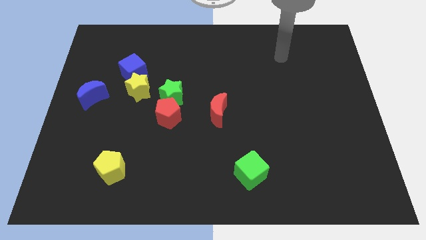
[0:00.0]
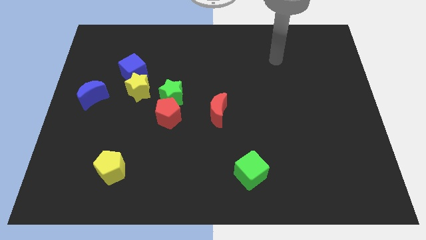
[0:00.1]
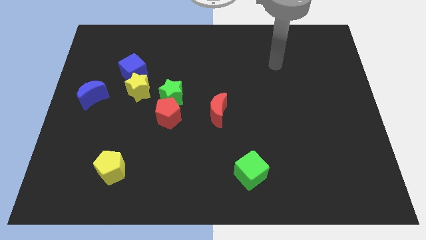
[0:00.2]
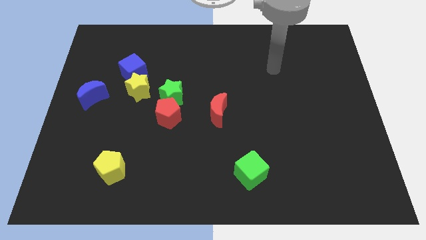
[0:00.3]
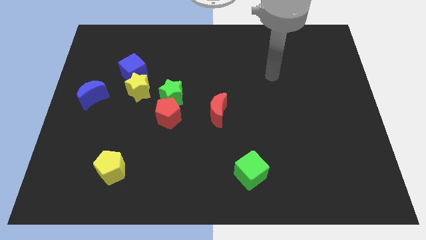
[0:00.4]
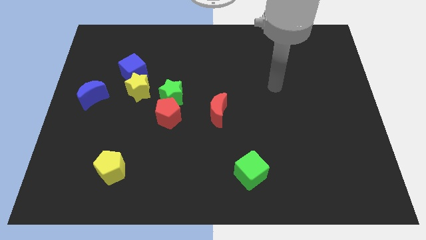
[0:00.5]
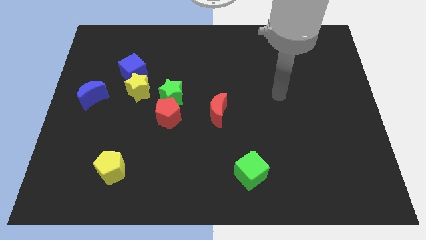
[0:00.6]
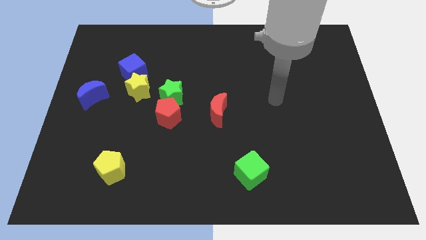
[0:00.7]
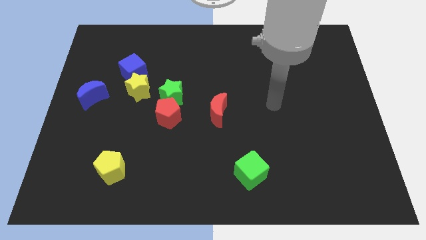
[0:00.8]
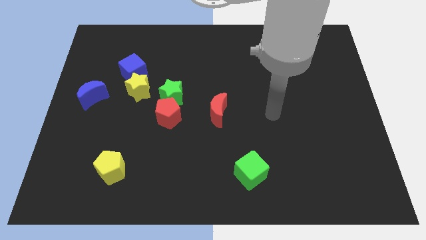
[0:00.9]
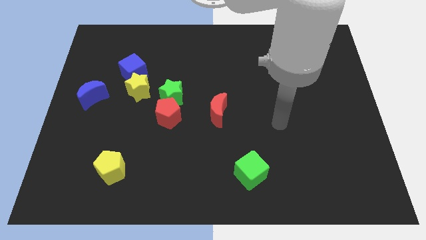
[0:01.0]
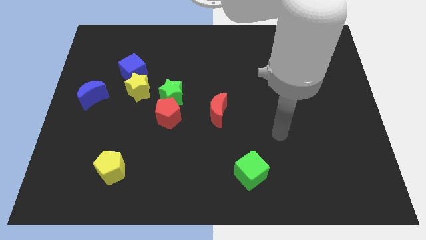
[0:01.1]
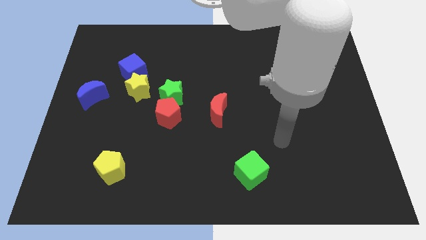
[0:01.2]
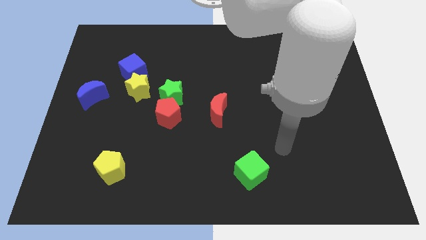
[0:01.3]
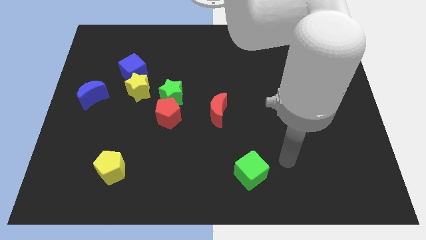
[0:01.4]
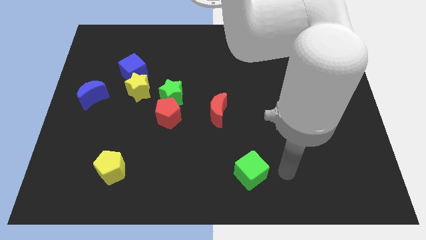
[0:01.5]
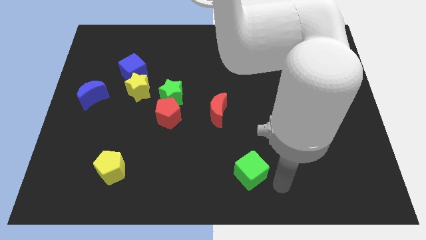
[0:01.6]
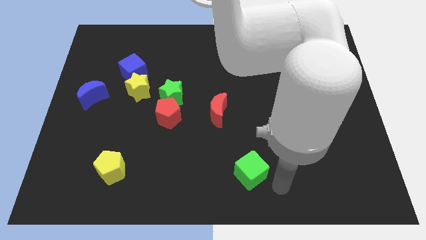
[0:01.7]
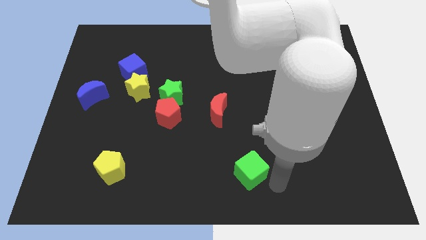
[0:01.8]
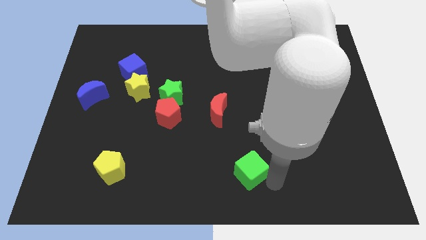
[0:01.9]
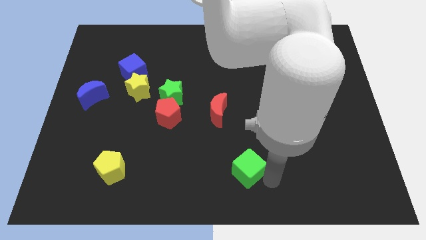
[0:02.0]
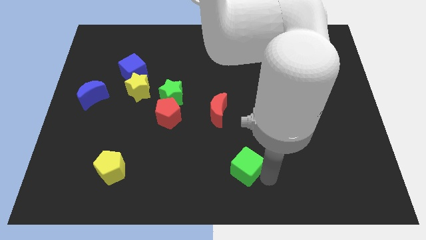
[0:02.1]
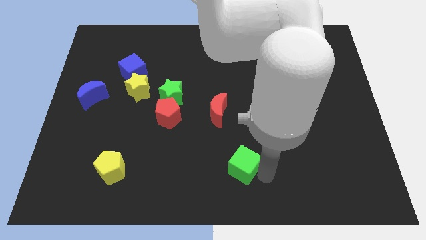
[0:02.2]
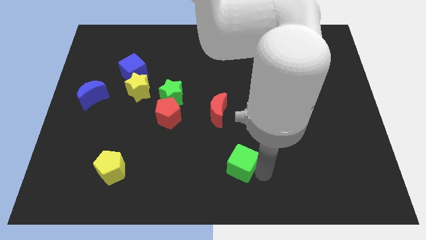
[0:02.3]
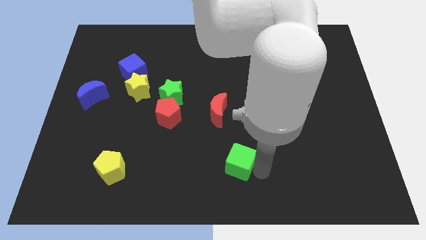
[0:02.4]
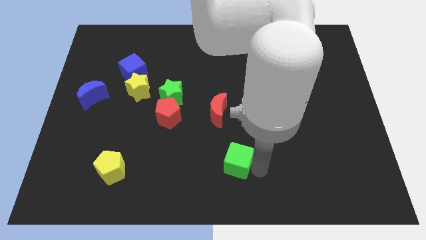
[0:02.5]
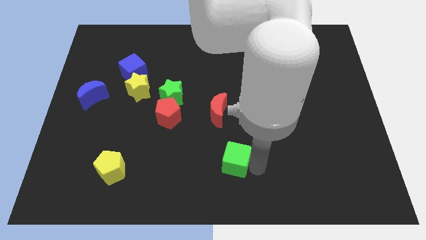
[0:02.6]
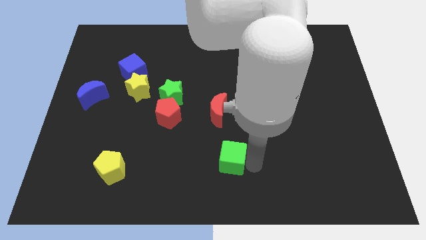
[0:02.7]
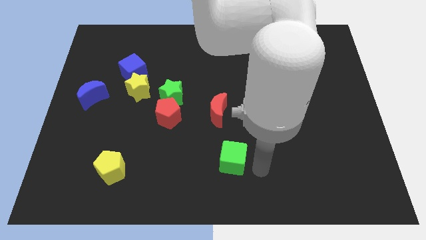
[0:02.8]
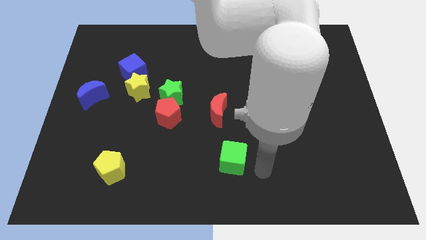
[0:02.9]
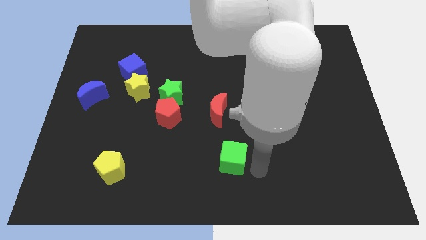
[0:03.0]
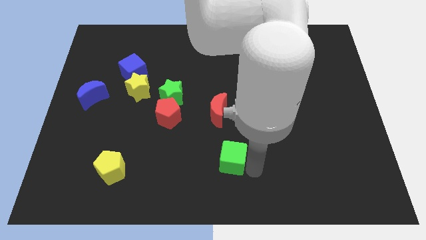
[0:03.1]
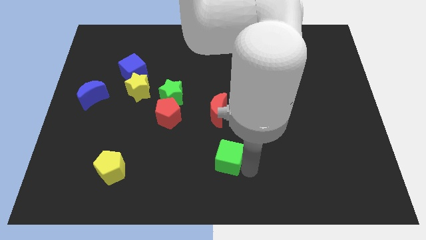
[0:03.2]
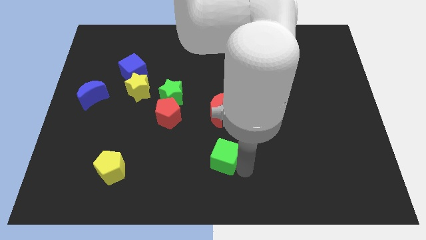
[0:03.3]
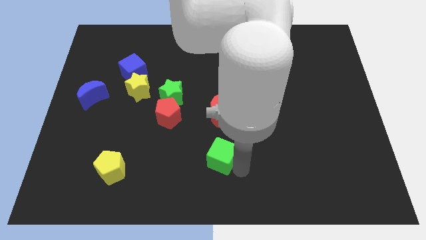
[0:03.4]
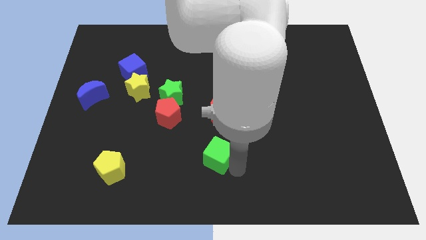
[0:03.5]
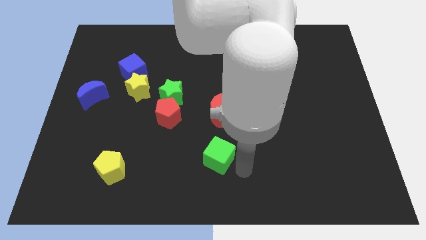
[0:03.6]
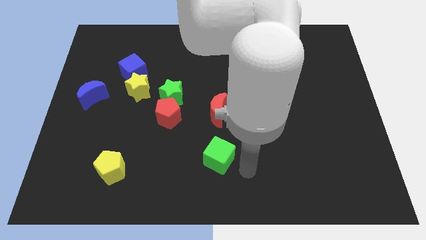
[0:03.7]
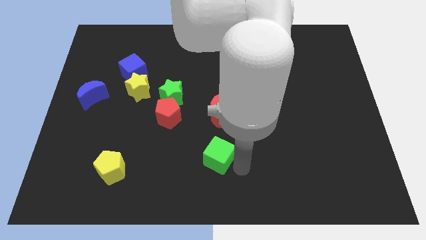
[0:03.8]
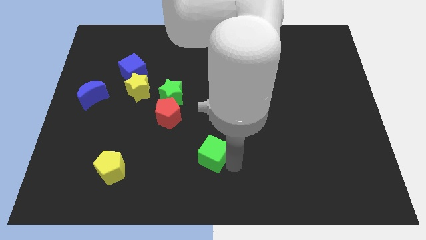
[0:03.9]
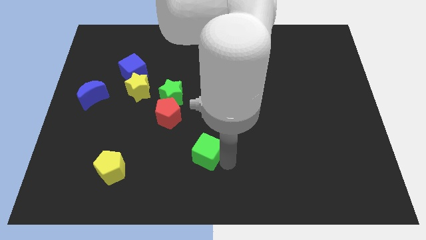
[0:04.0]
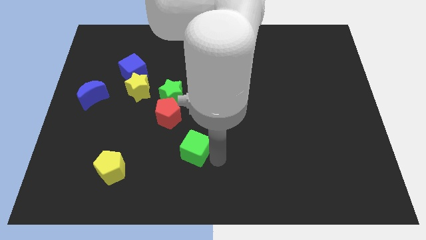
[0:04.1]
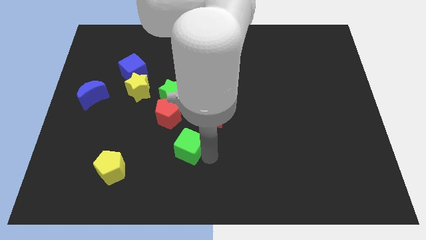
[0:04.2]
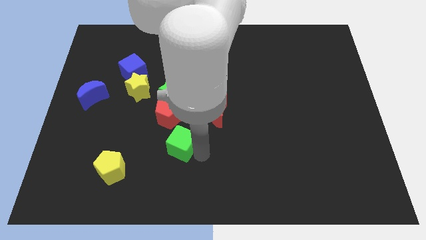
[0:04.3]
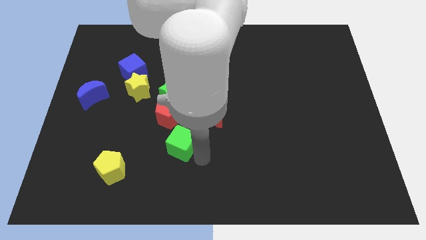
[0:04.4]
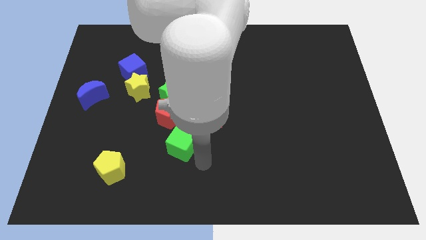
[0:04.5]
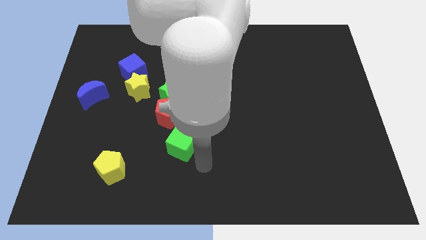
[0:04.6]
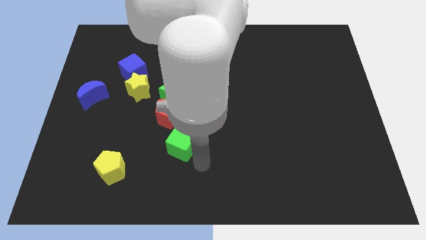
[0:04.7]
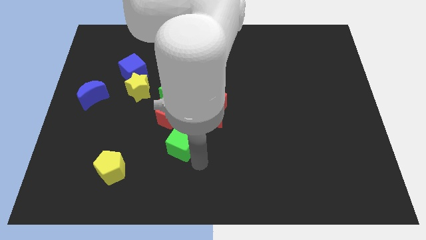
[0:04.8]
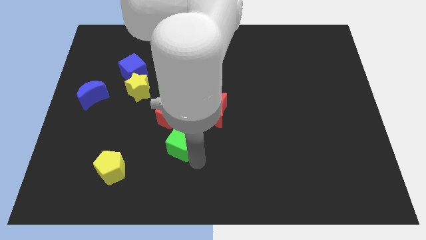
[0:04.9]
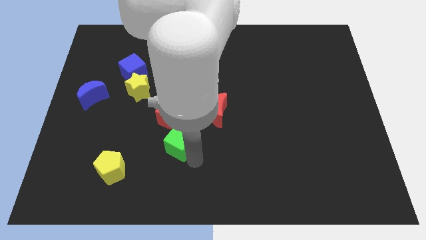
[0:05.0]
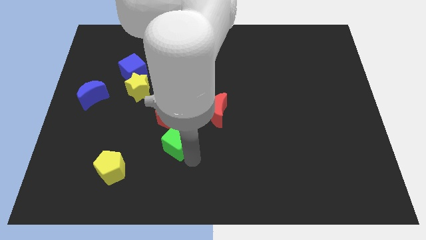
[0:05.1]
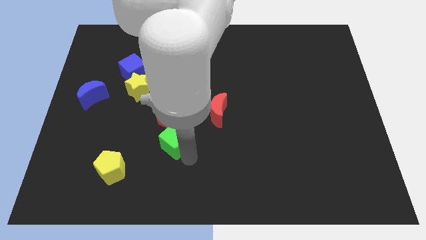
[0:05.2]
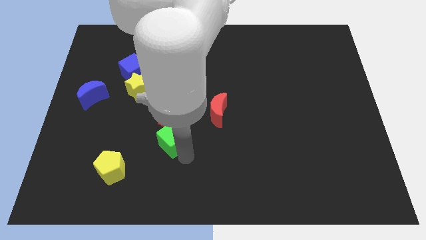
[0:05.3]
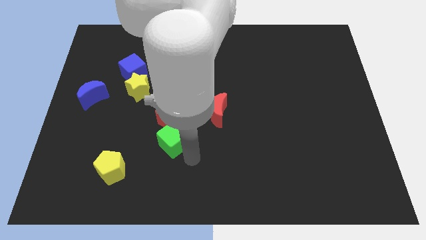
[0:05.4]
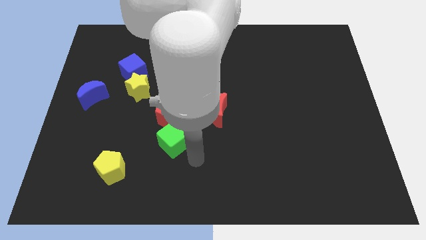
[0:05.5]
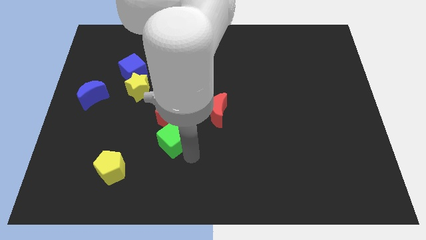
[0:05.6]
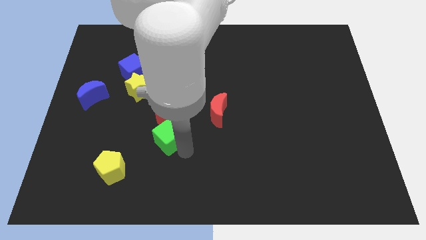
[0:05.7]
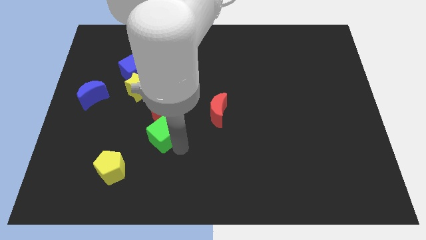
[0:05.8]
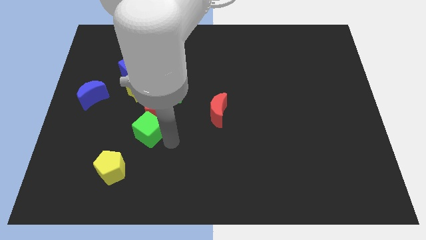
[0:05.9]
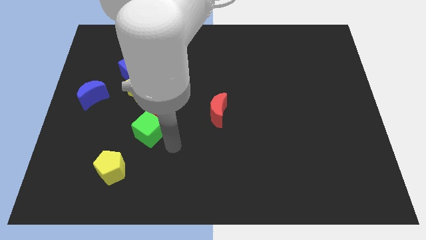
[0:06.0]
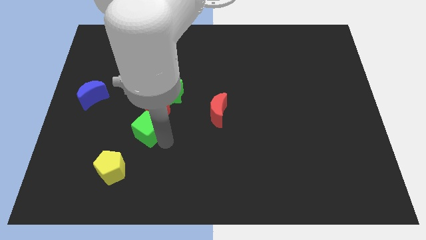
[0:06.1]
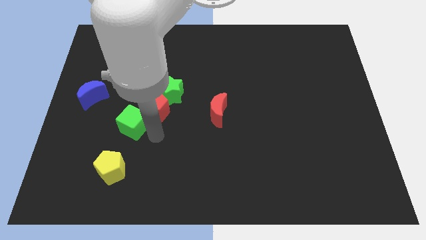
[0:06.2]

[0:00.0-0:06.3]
move the green cube to the left side of the red pentagon

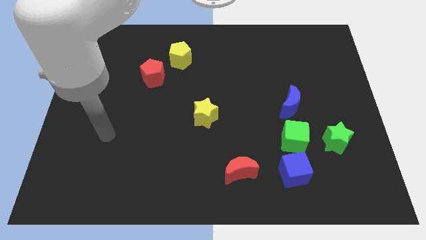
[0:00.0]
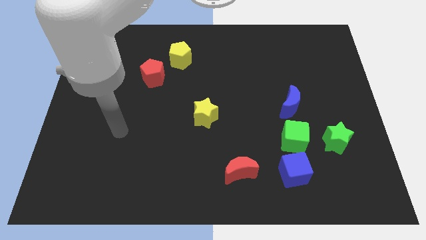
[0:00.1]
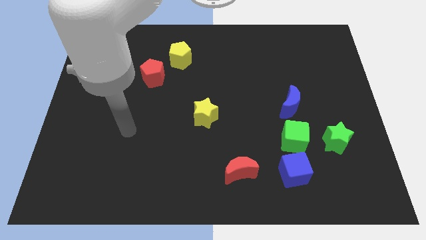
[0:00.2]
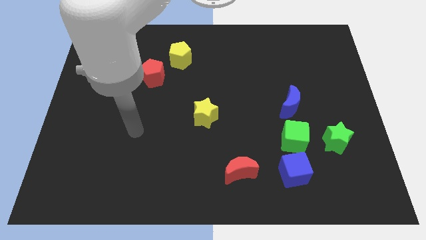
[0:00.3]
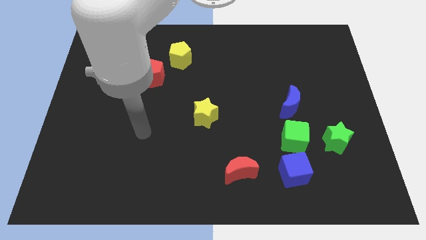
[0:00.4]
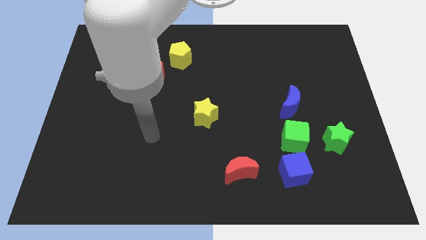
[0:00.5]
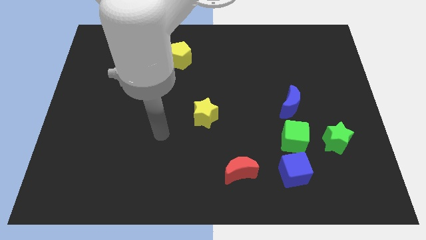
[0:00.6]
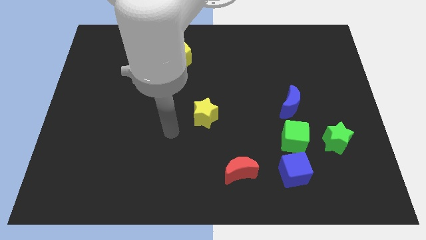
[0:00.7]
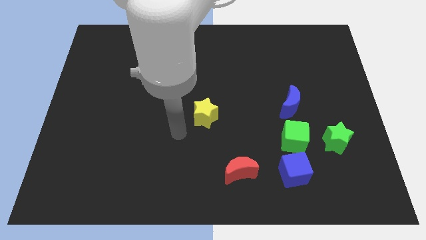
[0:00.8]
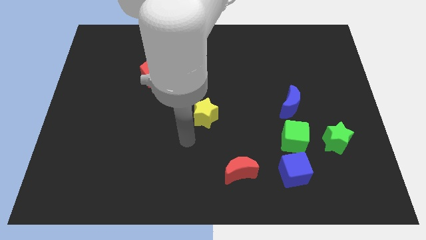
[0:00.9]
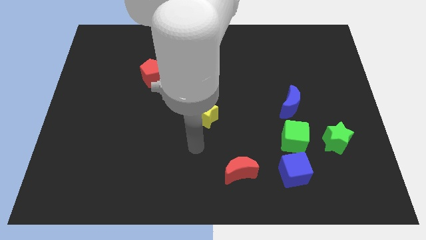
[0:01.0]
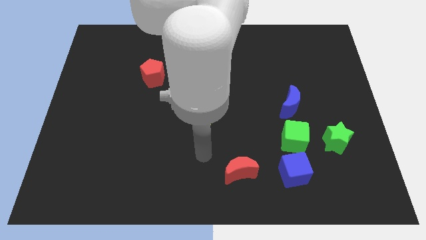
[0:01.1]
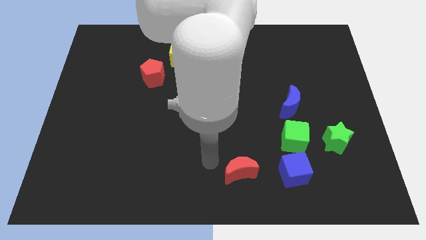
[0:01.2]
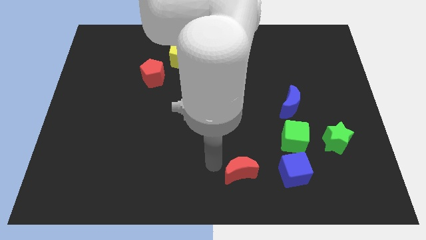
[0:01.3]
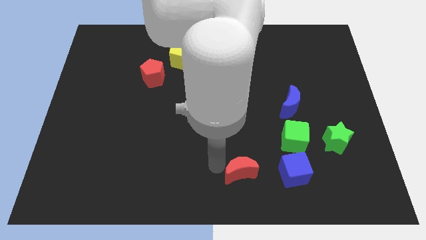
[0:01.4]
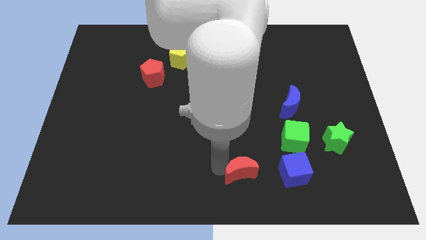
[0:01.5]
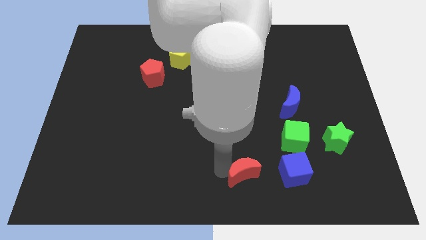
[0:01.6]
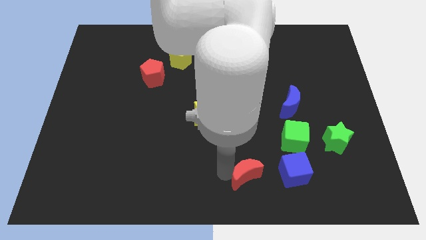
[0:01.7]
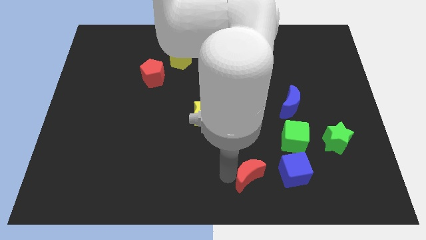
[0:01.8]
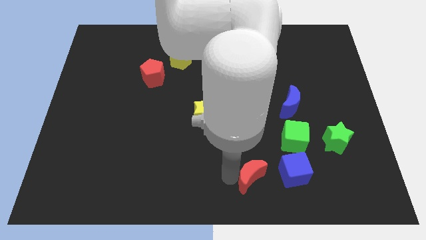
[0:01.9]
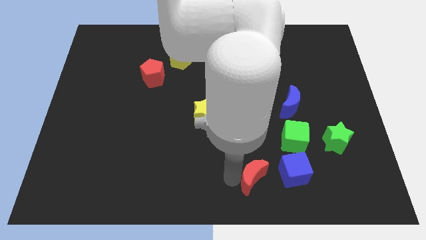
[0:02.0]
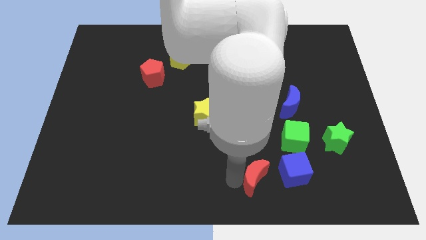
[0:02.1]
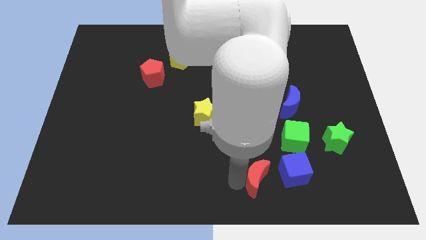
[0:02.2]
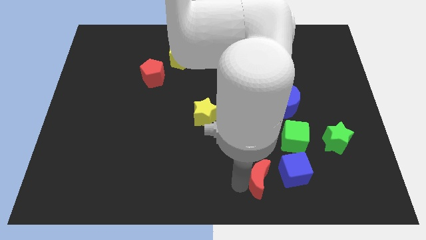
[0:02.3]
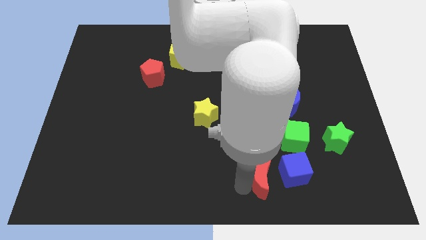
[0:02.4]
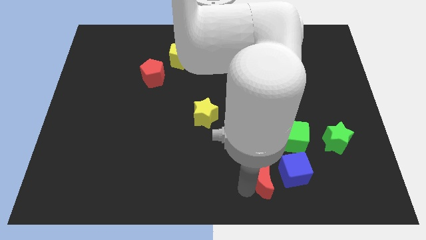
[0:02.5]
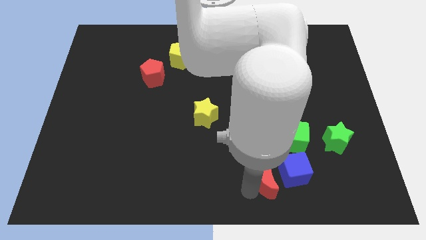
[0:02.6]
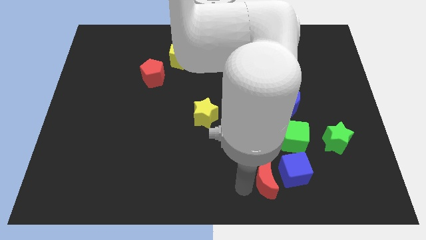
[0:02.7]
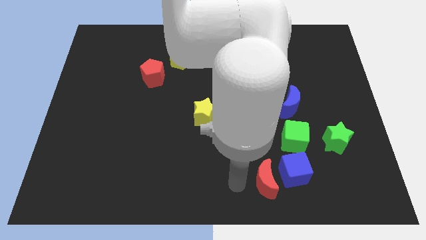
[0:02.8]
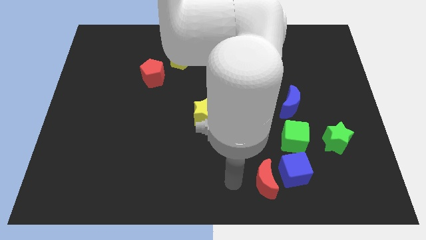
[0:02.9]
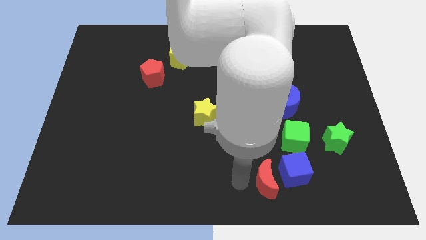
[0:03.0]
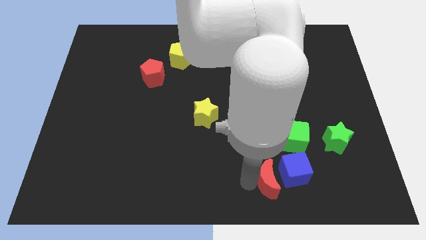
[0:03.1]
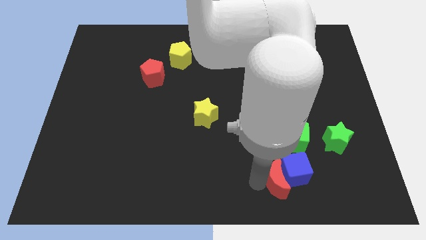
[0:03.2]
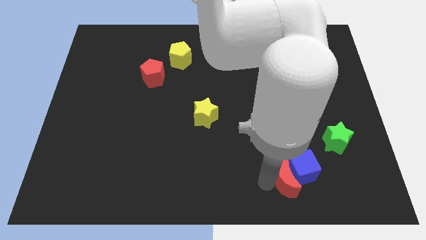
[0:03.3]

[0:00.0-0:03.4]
push the red moon below the green cube
